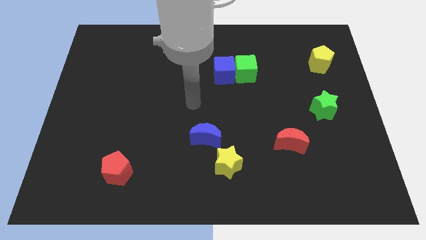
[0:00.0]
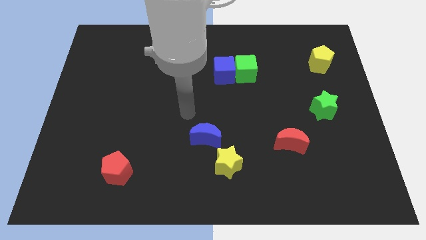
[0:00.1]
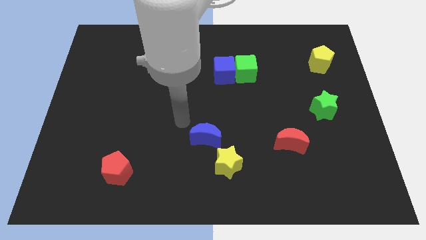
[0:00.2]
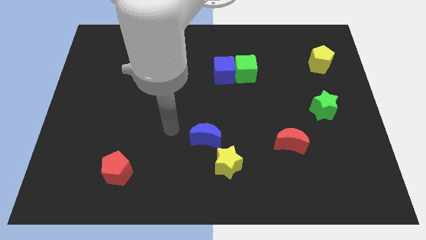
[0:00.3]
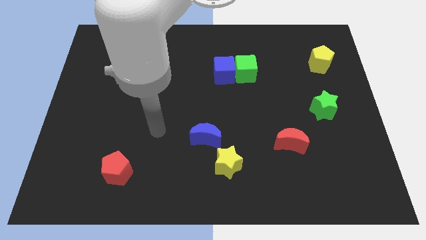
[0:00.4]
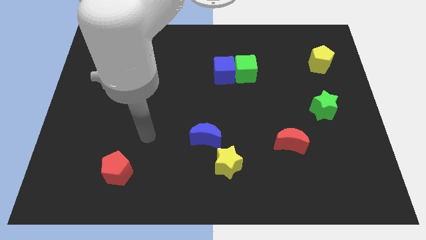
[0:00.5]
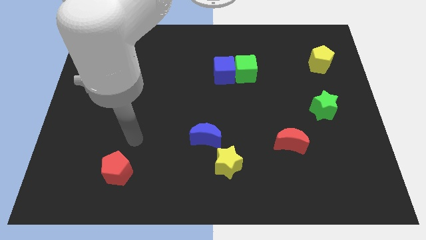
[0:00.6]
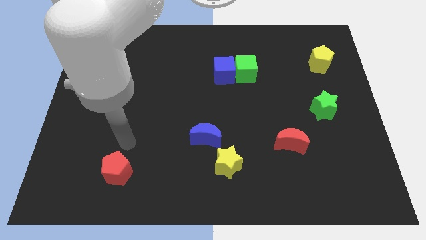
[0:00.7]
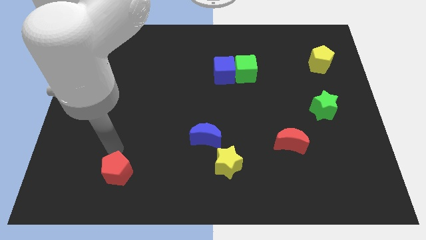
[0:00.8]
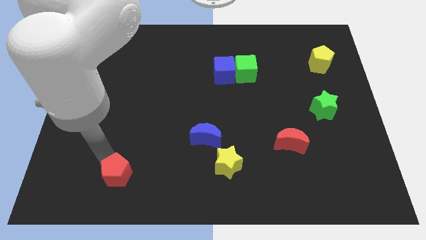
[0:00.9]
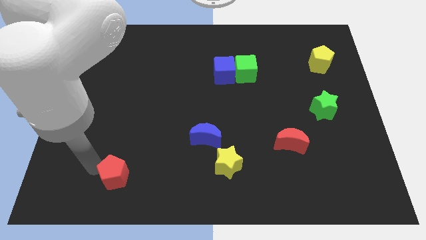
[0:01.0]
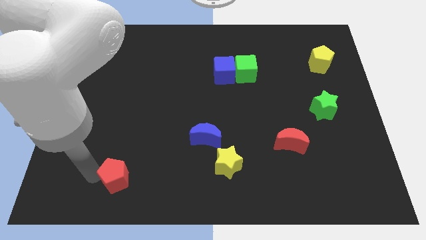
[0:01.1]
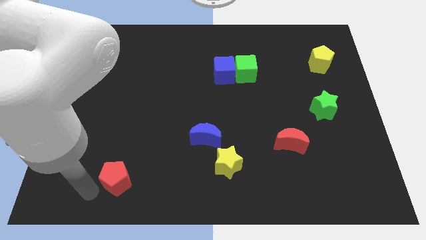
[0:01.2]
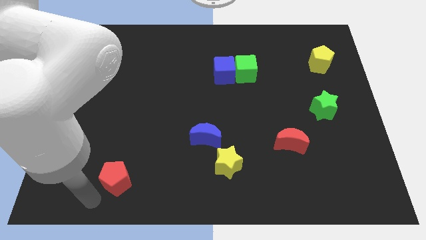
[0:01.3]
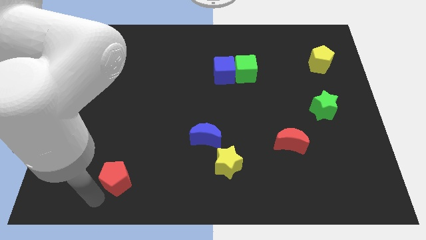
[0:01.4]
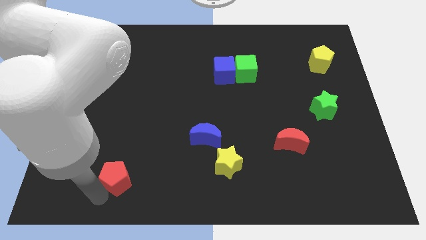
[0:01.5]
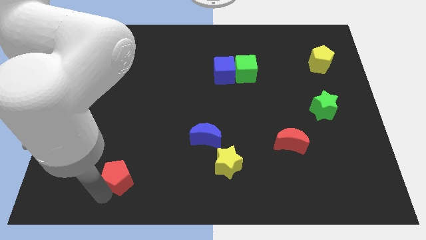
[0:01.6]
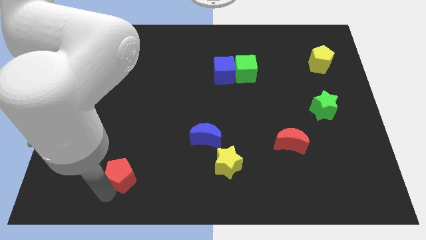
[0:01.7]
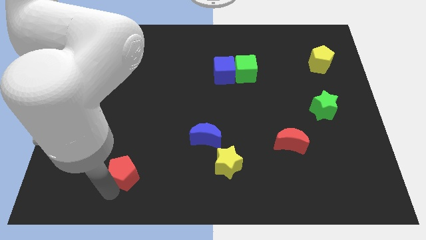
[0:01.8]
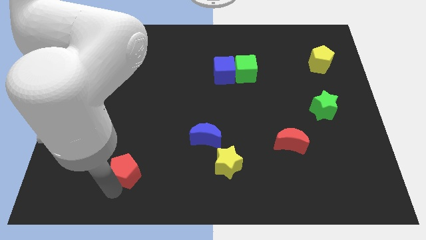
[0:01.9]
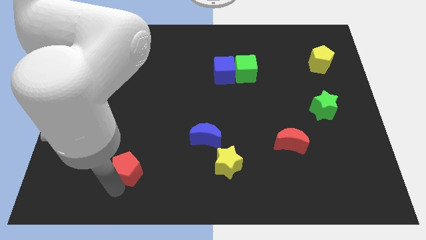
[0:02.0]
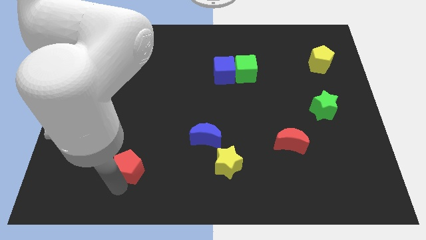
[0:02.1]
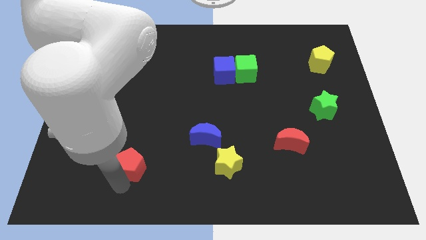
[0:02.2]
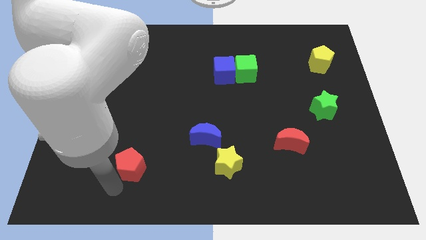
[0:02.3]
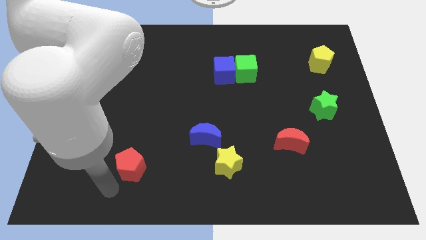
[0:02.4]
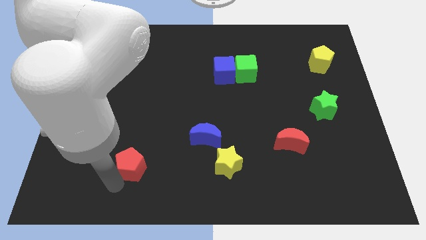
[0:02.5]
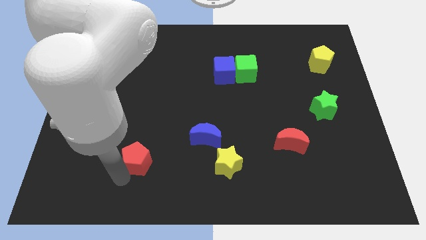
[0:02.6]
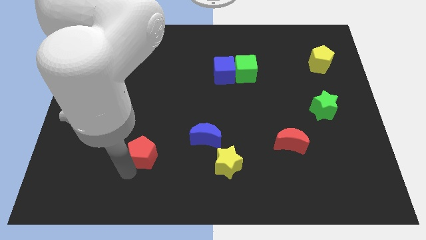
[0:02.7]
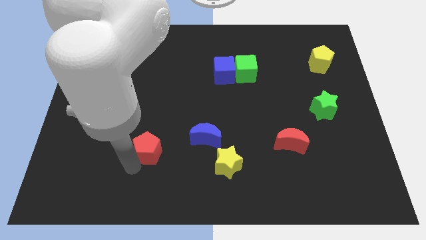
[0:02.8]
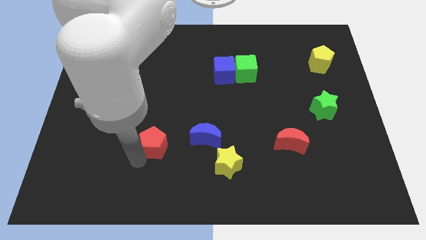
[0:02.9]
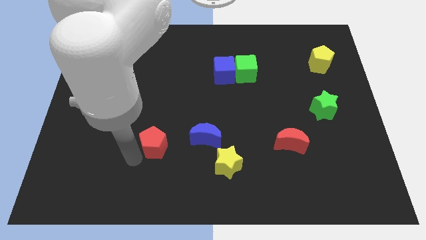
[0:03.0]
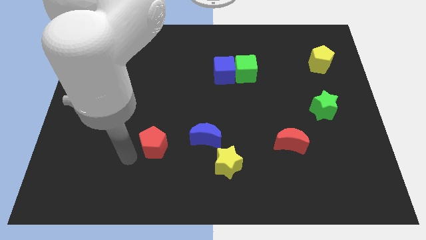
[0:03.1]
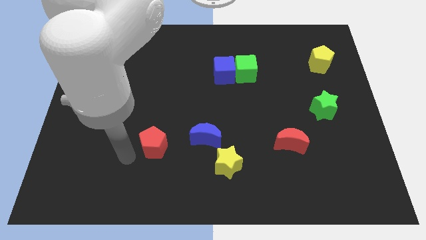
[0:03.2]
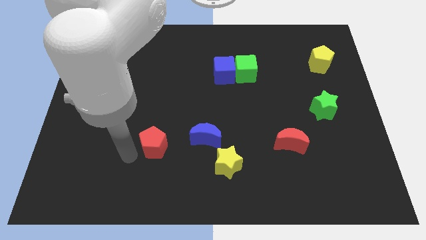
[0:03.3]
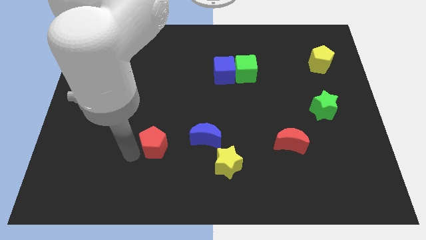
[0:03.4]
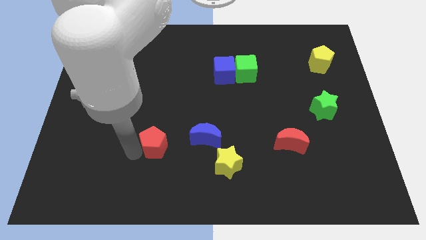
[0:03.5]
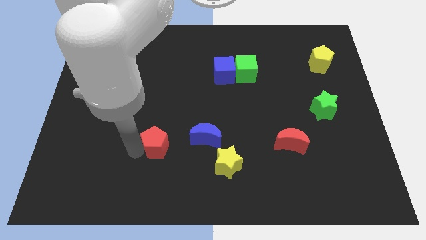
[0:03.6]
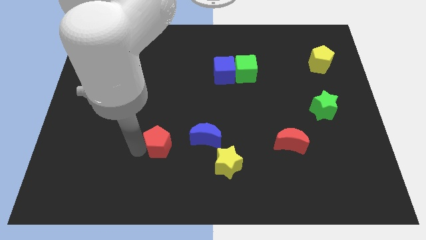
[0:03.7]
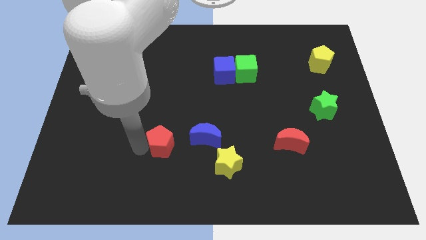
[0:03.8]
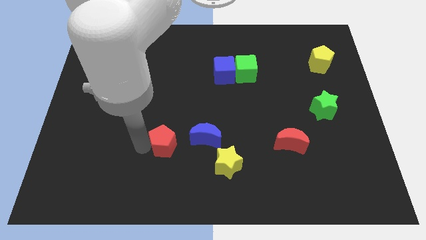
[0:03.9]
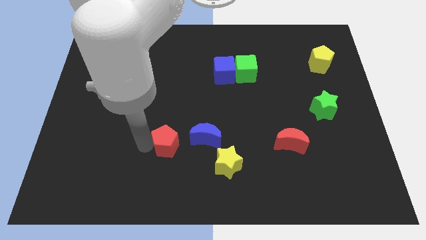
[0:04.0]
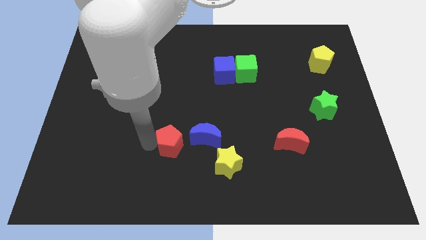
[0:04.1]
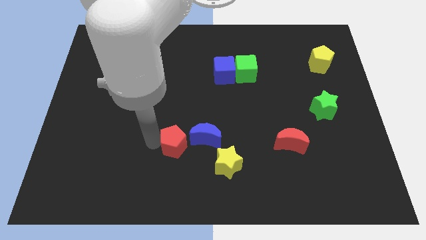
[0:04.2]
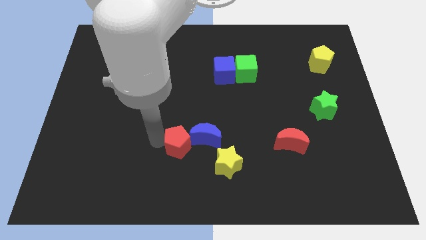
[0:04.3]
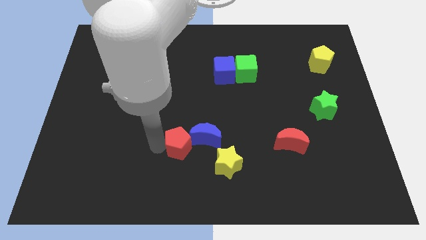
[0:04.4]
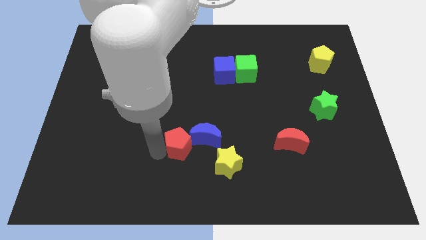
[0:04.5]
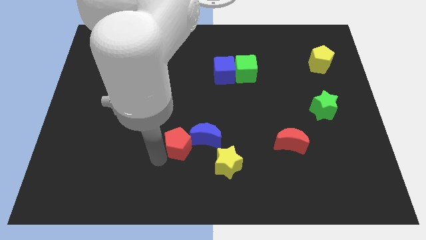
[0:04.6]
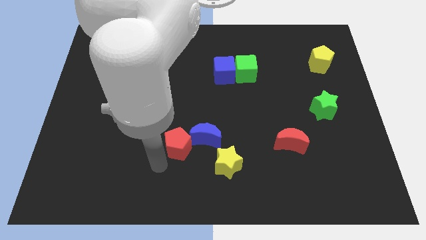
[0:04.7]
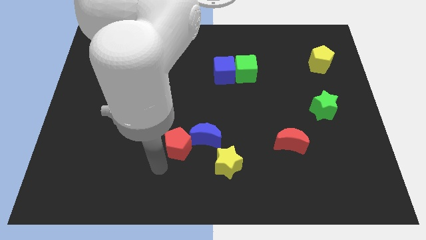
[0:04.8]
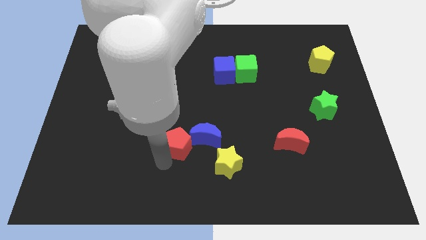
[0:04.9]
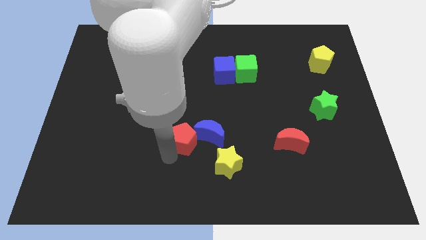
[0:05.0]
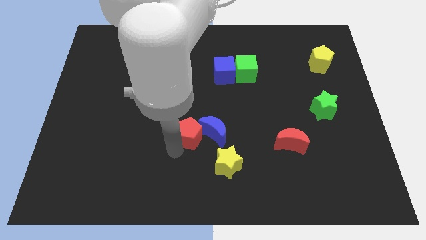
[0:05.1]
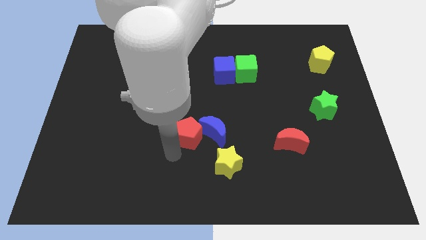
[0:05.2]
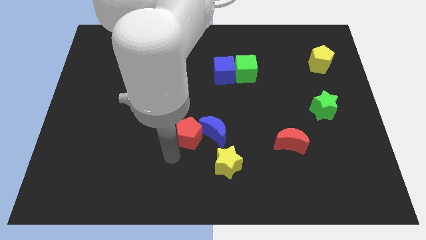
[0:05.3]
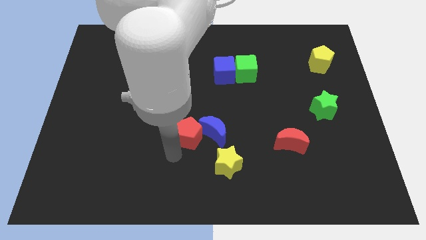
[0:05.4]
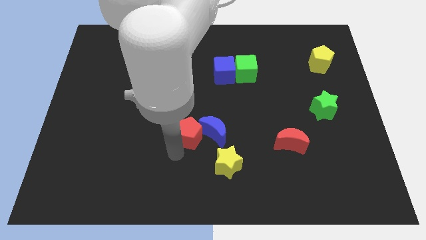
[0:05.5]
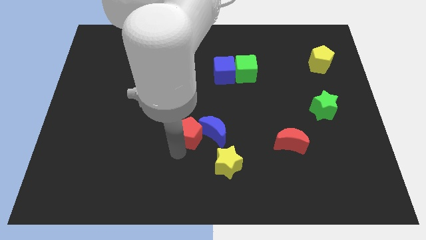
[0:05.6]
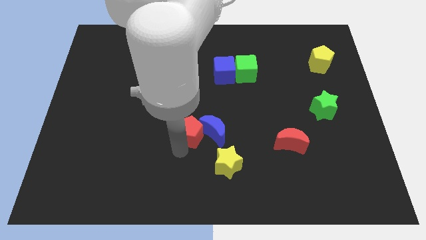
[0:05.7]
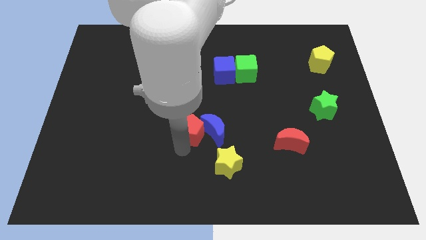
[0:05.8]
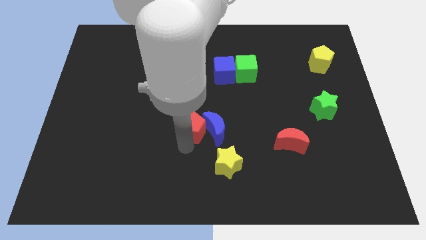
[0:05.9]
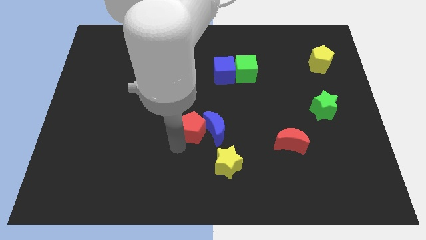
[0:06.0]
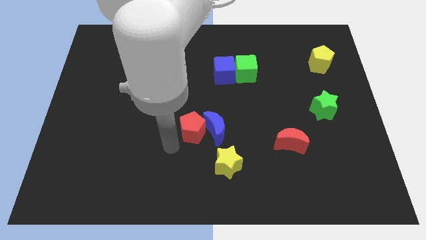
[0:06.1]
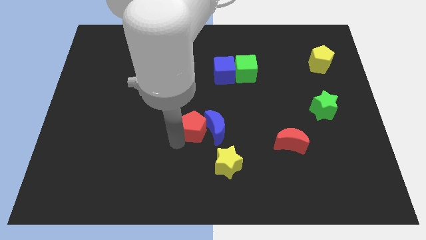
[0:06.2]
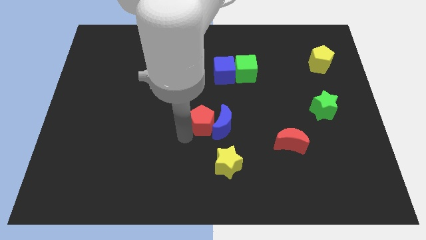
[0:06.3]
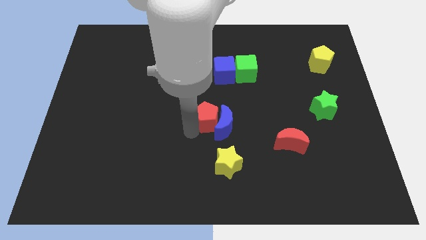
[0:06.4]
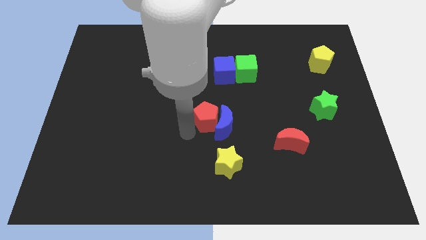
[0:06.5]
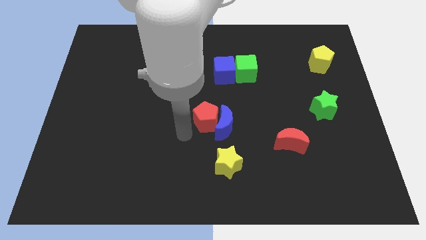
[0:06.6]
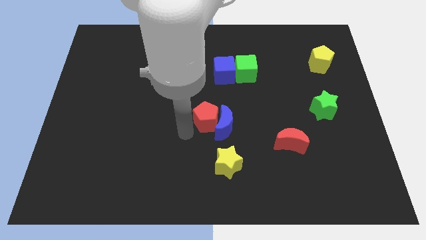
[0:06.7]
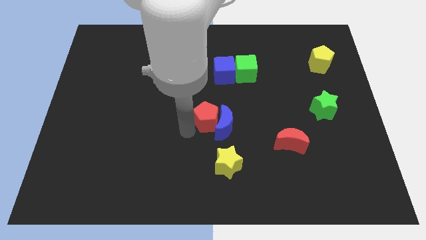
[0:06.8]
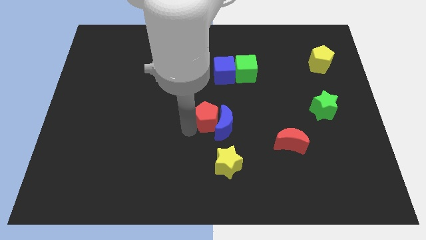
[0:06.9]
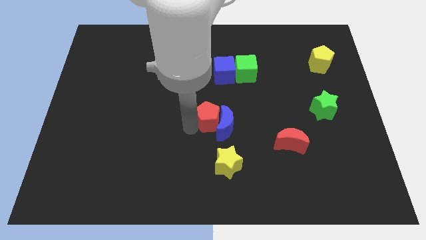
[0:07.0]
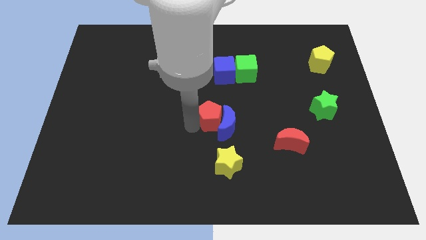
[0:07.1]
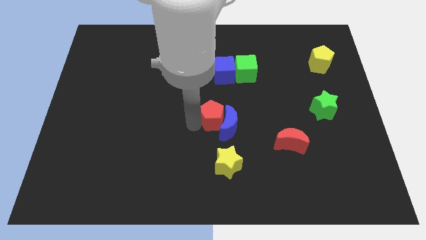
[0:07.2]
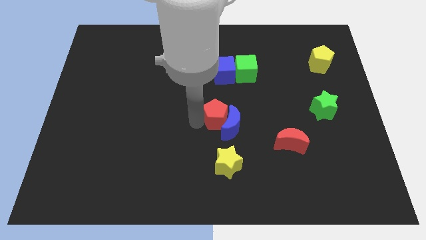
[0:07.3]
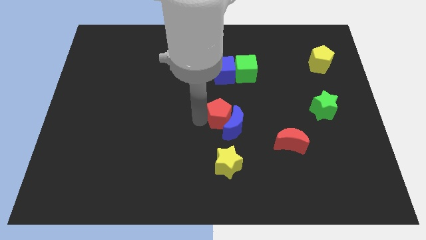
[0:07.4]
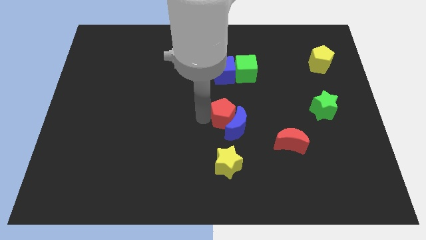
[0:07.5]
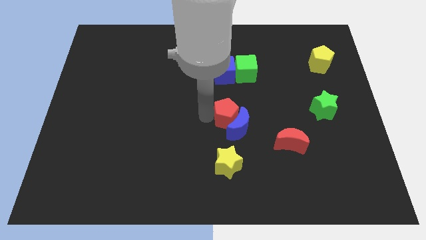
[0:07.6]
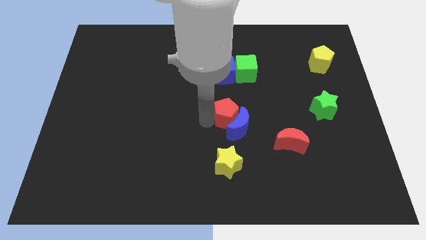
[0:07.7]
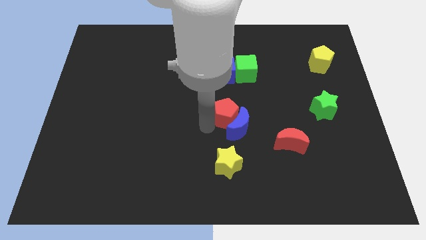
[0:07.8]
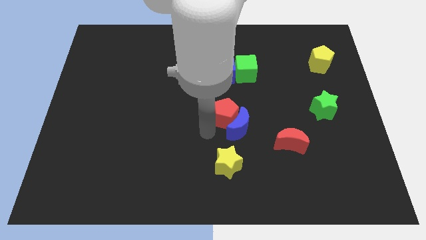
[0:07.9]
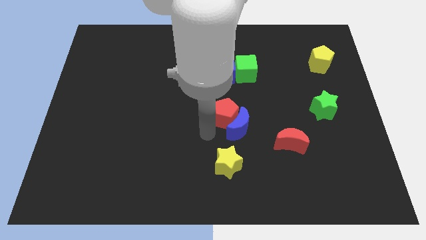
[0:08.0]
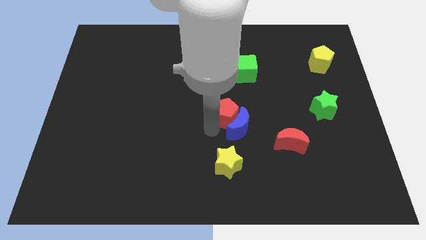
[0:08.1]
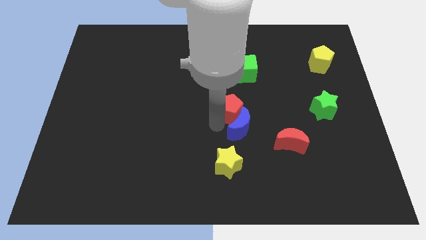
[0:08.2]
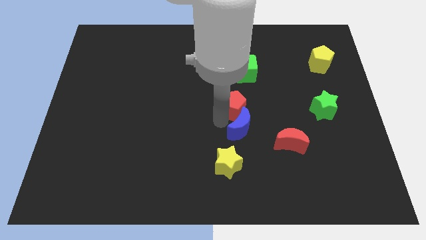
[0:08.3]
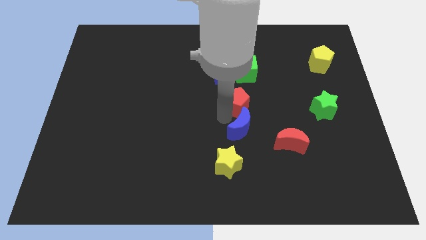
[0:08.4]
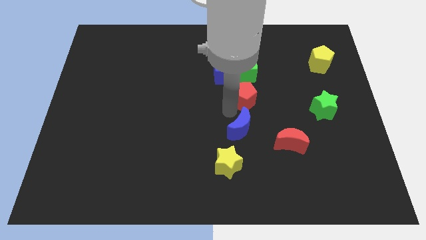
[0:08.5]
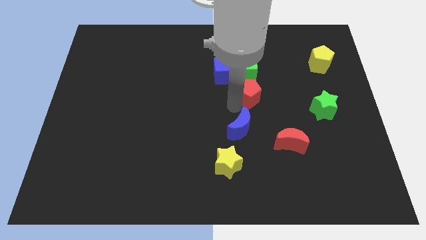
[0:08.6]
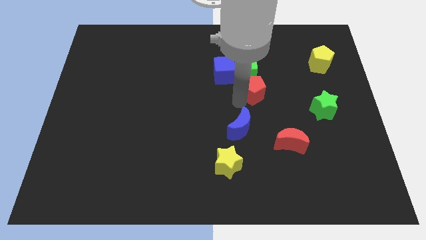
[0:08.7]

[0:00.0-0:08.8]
put the red pentagon diagonally down and to the right of the green cube
